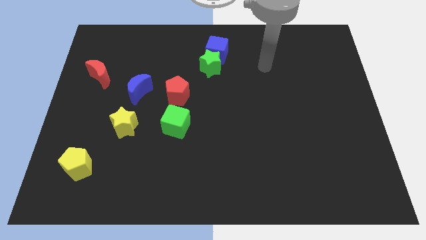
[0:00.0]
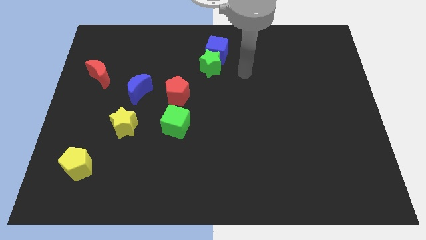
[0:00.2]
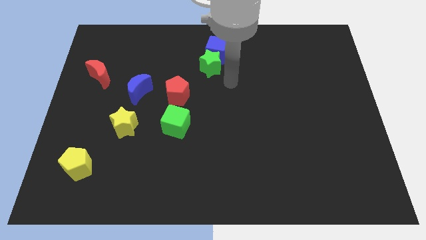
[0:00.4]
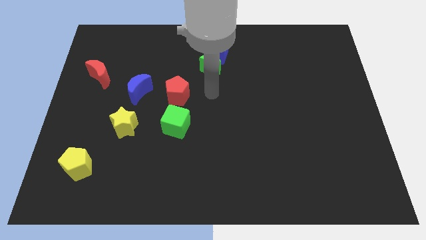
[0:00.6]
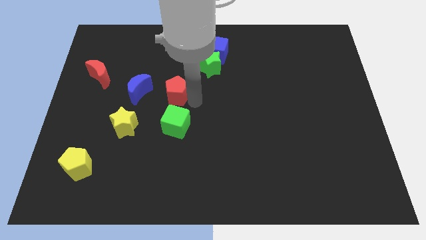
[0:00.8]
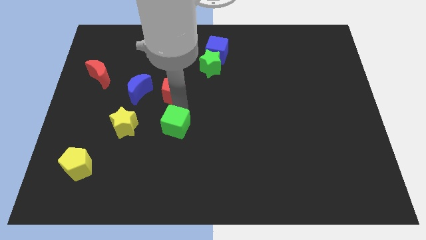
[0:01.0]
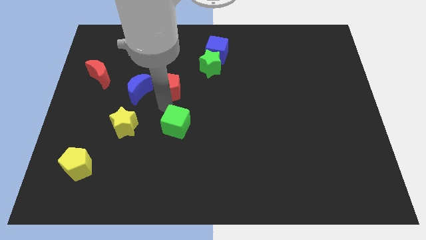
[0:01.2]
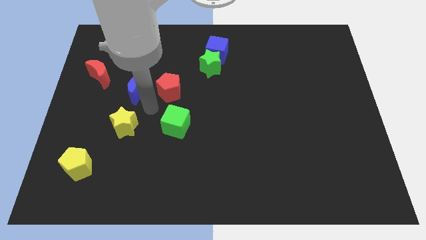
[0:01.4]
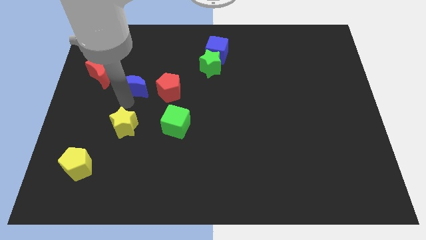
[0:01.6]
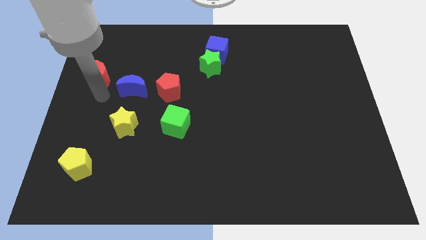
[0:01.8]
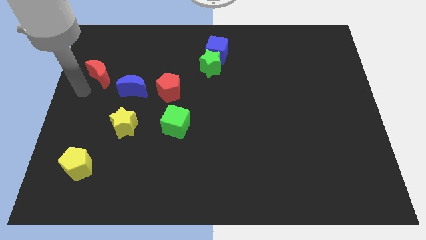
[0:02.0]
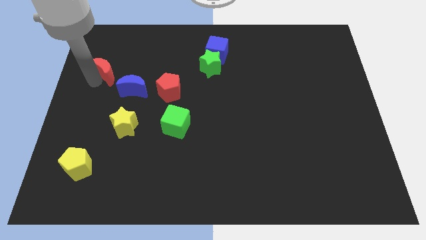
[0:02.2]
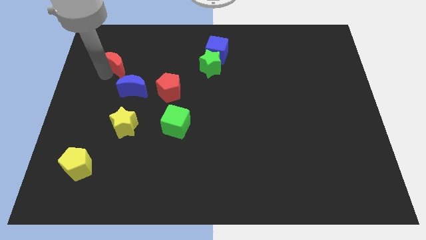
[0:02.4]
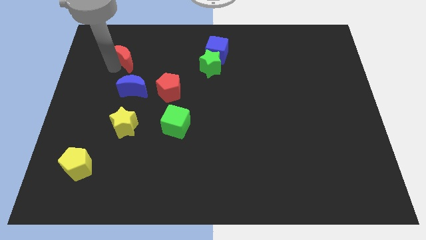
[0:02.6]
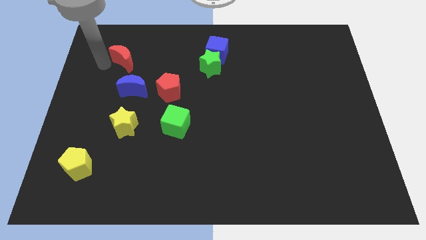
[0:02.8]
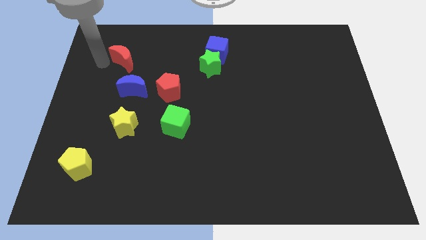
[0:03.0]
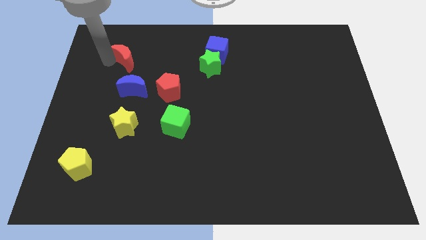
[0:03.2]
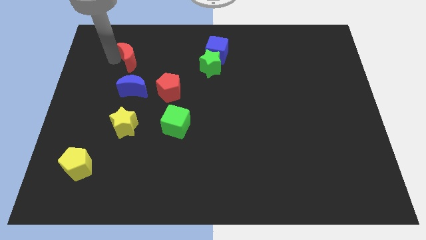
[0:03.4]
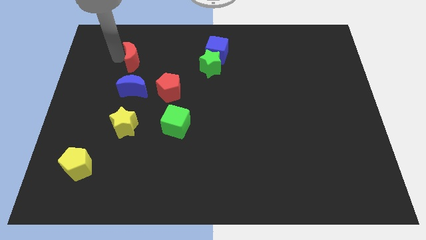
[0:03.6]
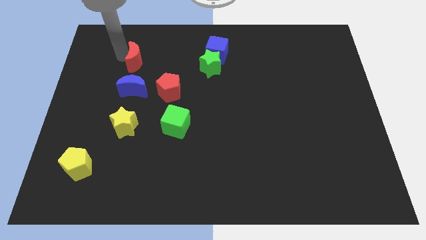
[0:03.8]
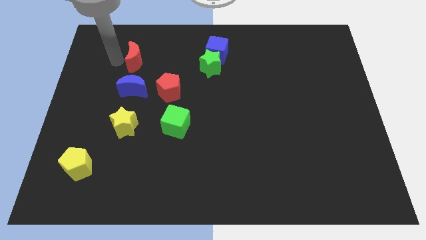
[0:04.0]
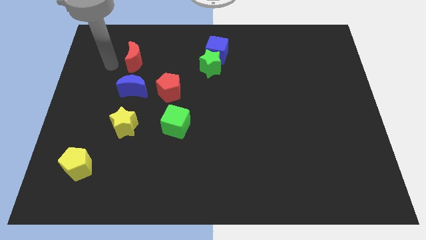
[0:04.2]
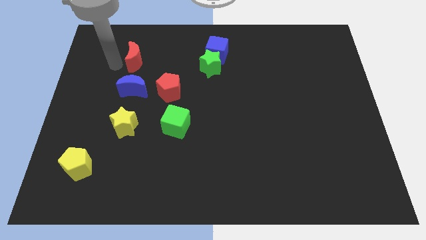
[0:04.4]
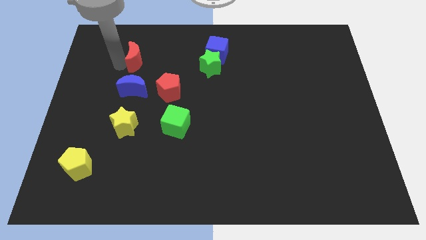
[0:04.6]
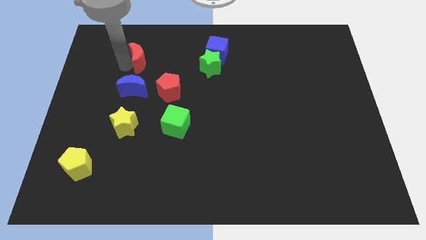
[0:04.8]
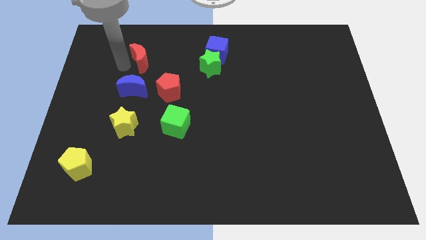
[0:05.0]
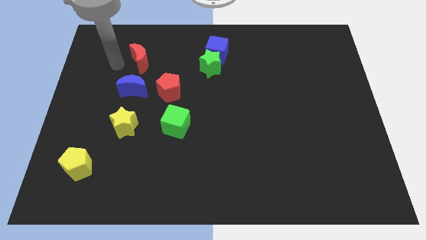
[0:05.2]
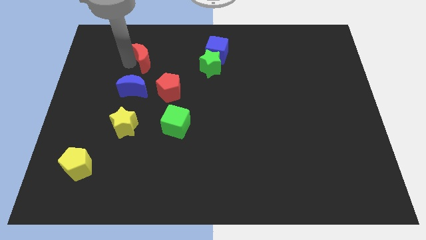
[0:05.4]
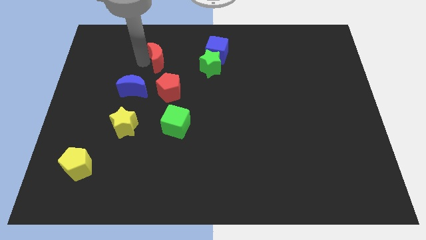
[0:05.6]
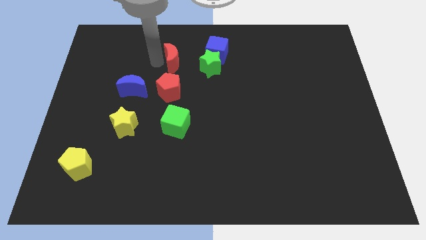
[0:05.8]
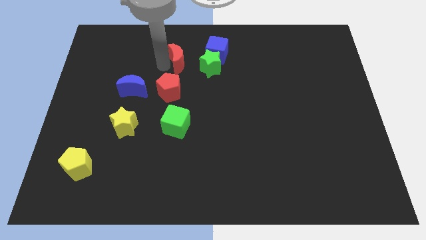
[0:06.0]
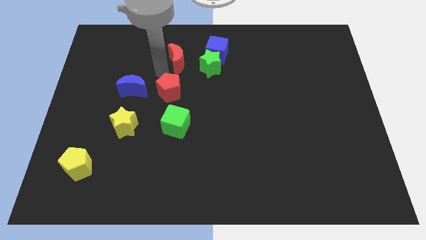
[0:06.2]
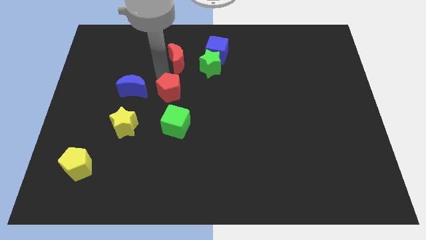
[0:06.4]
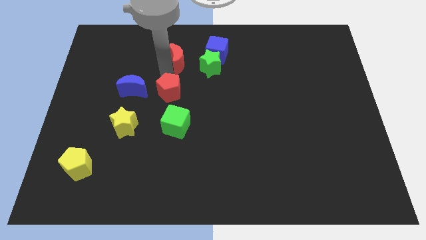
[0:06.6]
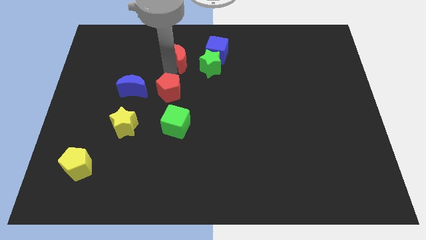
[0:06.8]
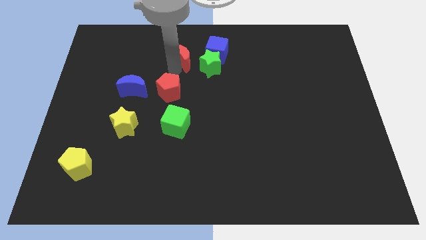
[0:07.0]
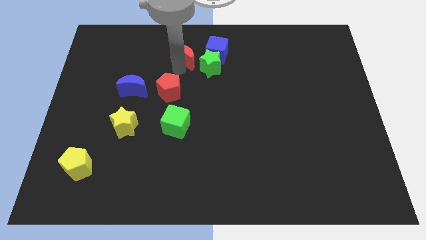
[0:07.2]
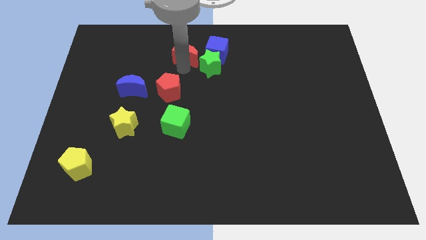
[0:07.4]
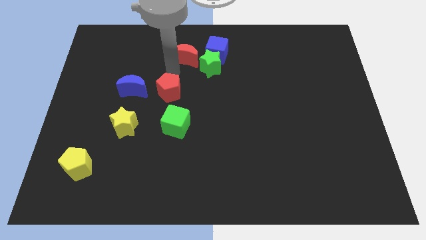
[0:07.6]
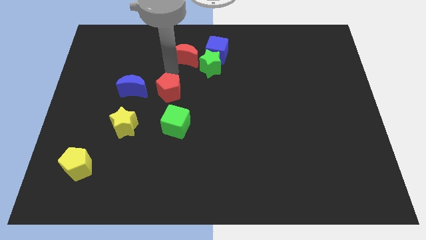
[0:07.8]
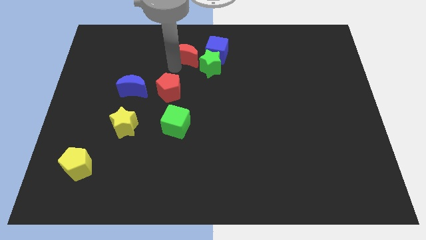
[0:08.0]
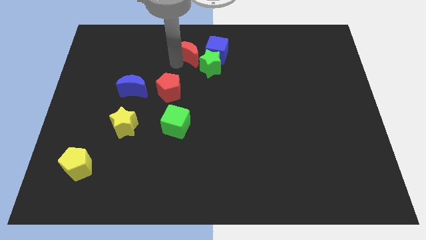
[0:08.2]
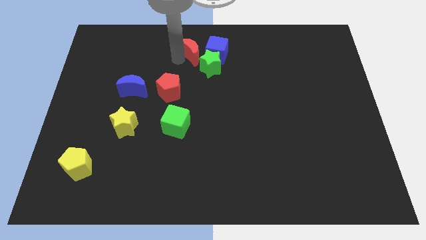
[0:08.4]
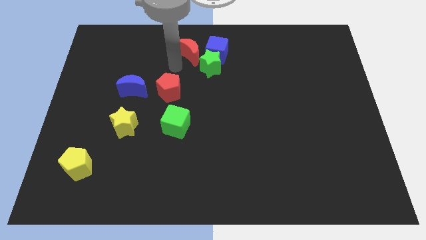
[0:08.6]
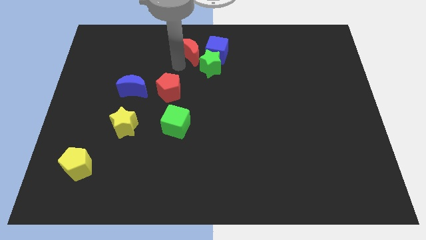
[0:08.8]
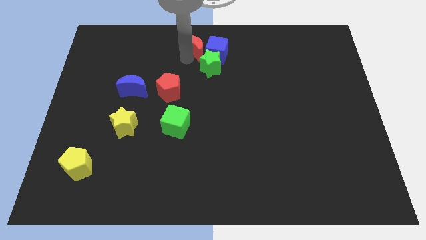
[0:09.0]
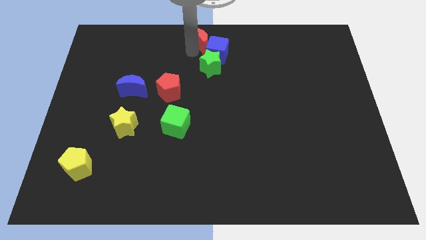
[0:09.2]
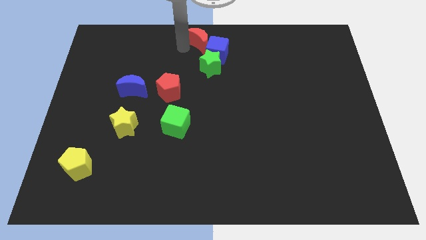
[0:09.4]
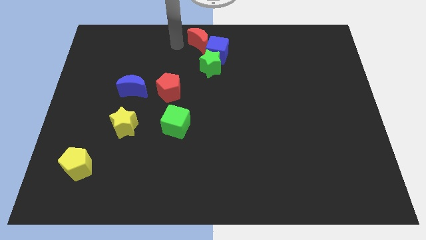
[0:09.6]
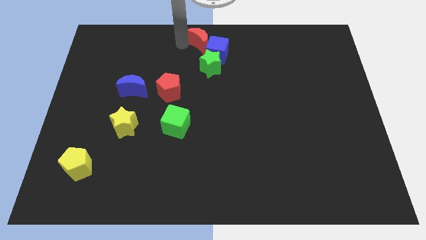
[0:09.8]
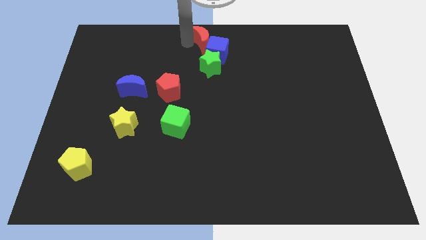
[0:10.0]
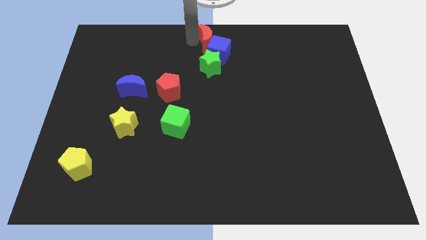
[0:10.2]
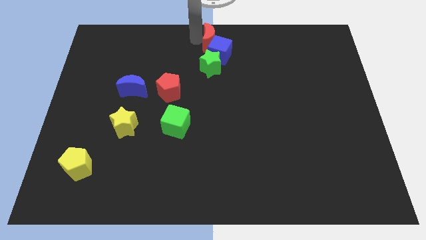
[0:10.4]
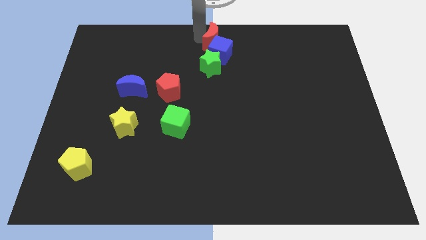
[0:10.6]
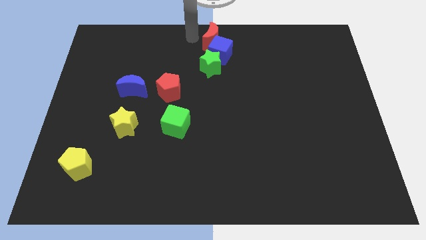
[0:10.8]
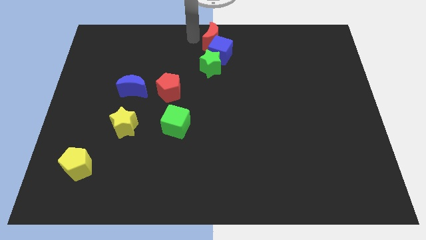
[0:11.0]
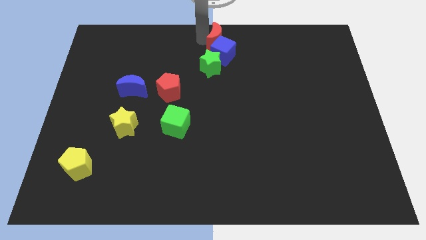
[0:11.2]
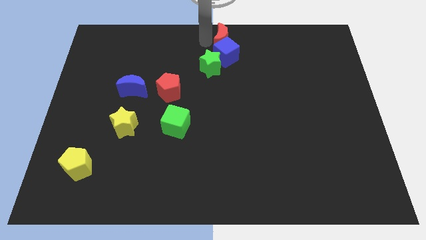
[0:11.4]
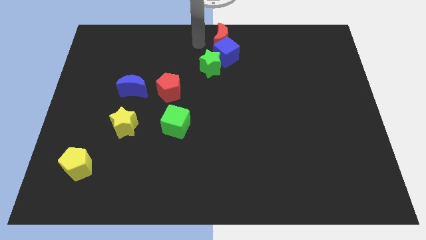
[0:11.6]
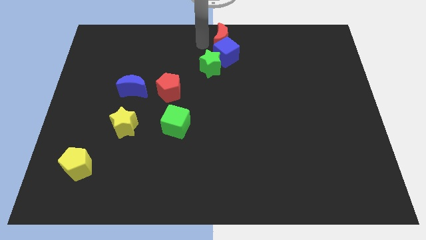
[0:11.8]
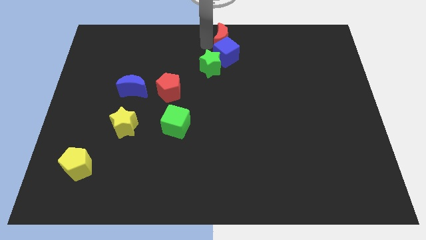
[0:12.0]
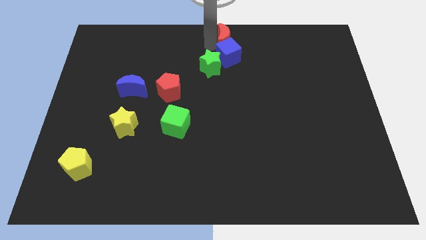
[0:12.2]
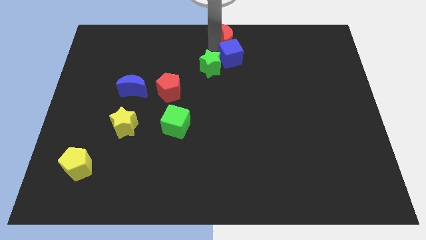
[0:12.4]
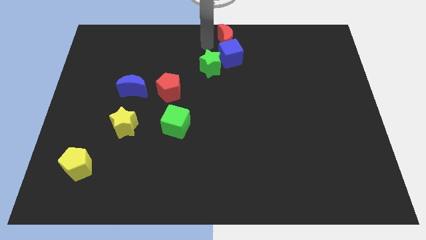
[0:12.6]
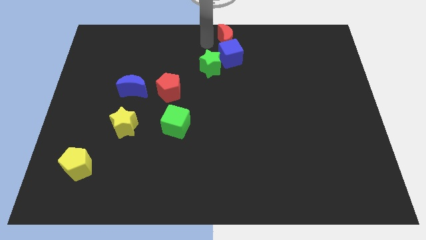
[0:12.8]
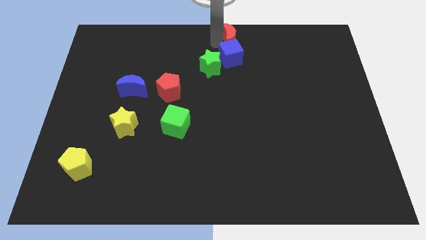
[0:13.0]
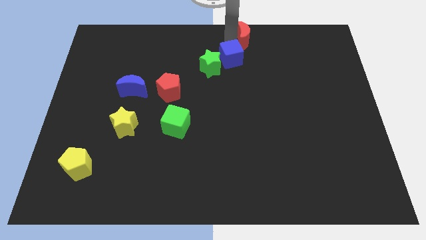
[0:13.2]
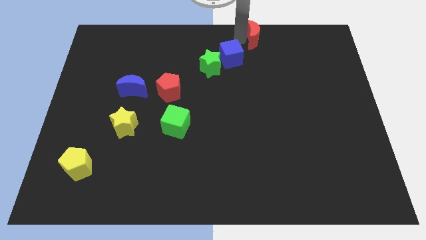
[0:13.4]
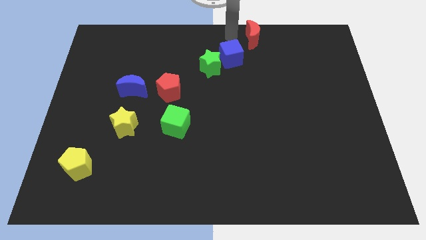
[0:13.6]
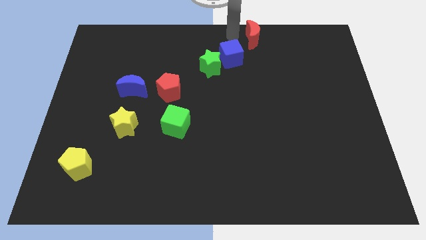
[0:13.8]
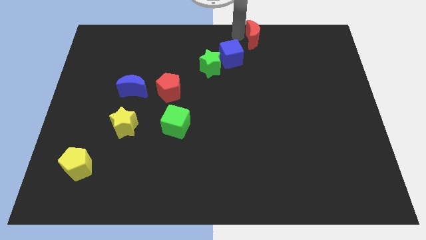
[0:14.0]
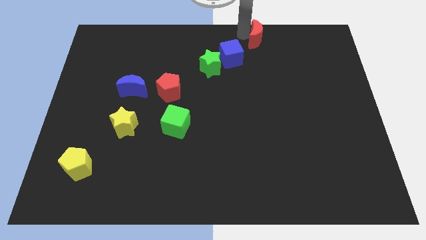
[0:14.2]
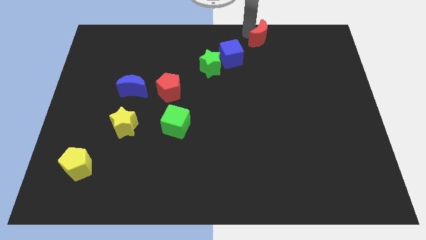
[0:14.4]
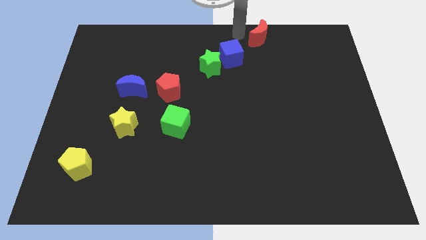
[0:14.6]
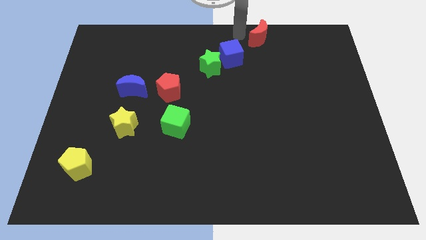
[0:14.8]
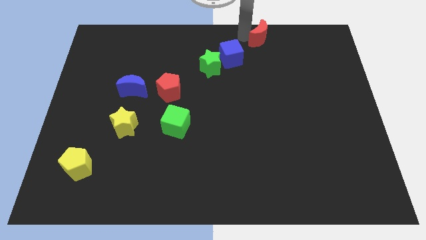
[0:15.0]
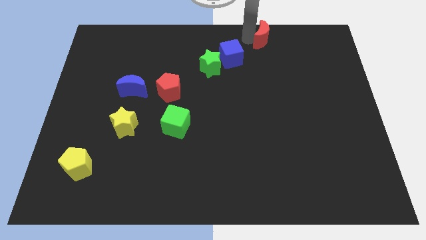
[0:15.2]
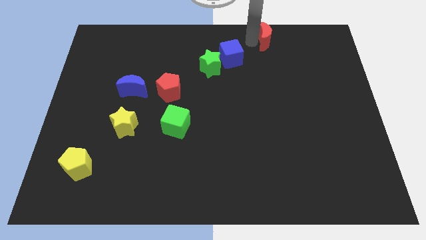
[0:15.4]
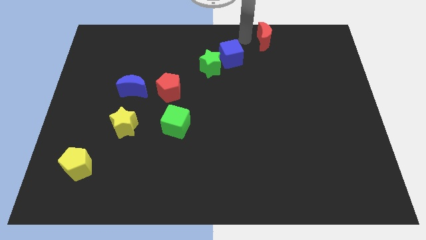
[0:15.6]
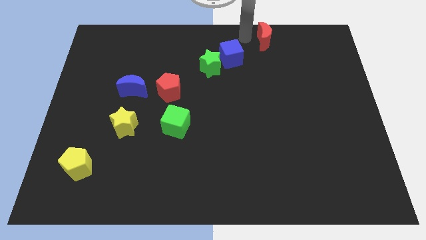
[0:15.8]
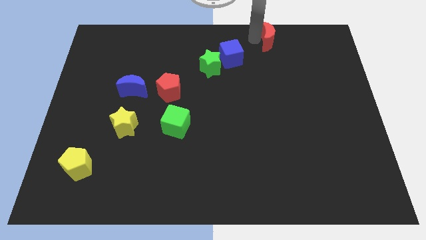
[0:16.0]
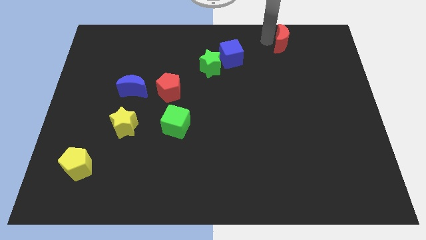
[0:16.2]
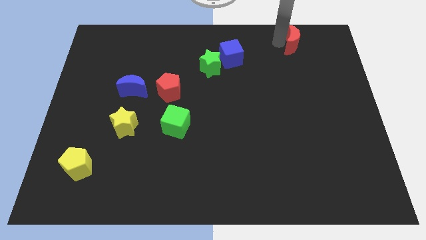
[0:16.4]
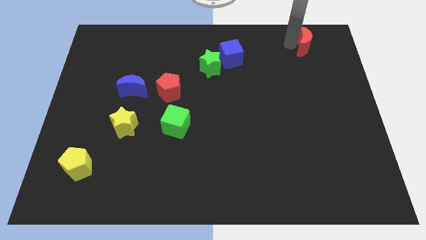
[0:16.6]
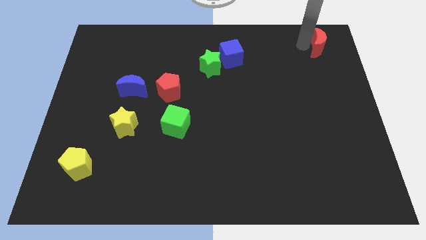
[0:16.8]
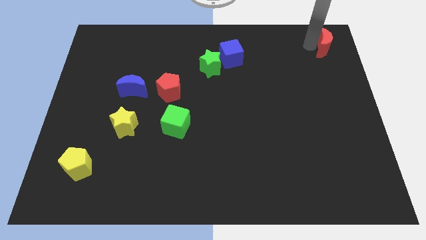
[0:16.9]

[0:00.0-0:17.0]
put the red moon to the top right of the board
